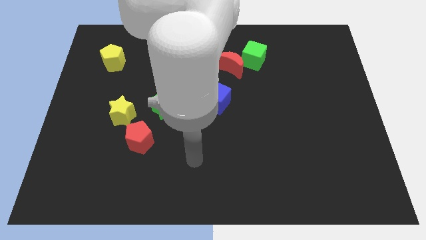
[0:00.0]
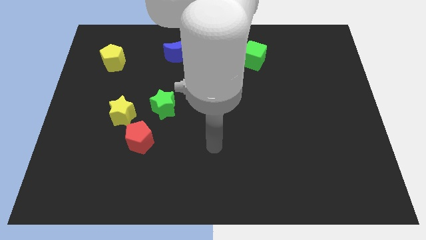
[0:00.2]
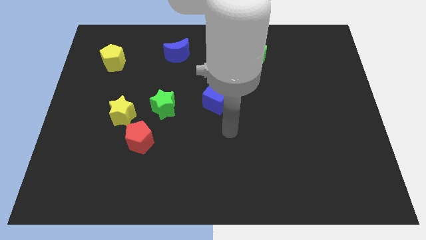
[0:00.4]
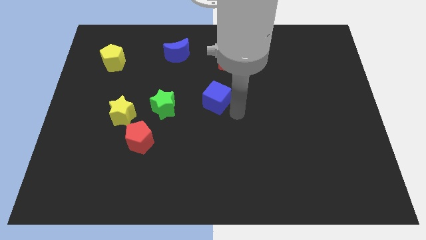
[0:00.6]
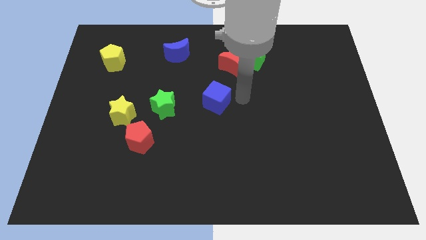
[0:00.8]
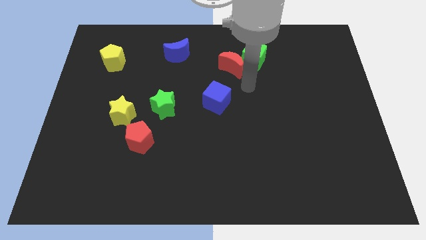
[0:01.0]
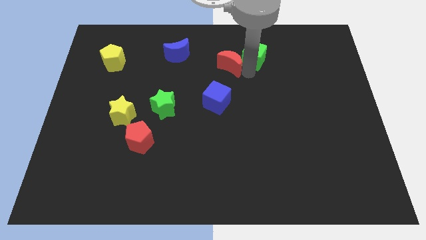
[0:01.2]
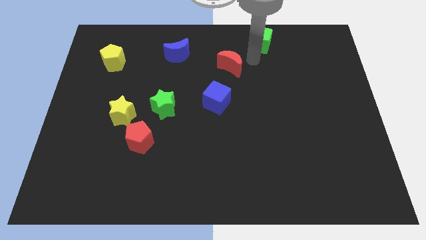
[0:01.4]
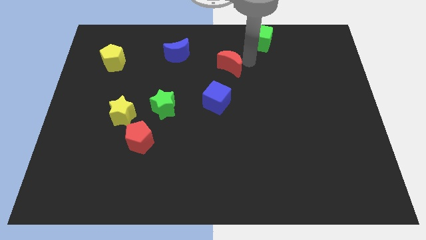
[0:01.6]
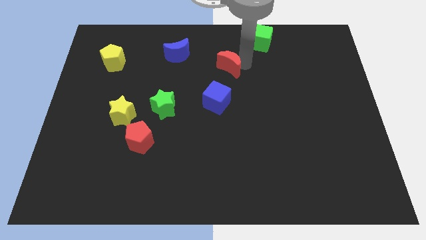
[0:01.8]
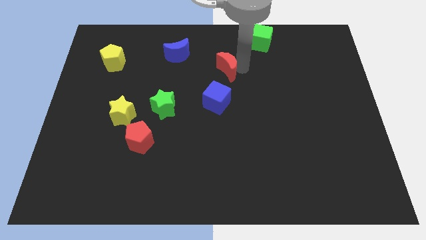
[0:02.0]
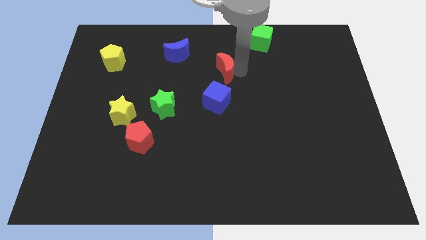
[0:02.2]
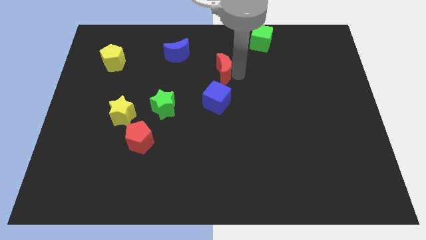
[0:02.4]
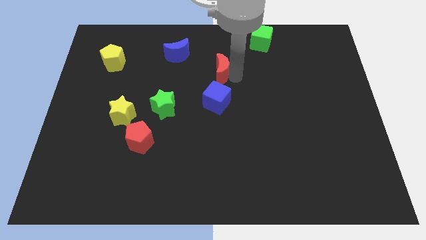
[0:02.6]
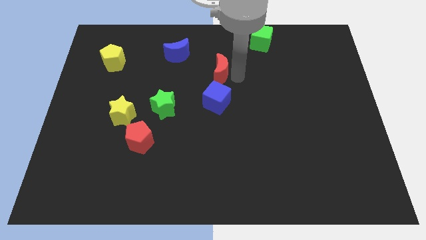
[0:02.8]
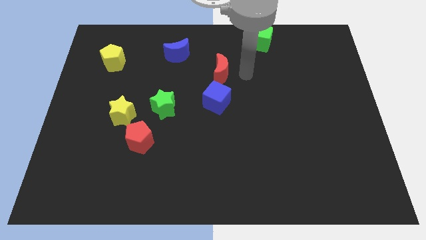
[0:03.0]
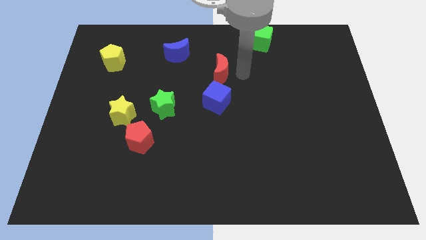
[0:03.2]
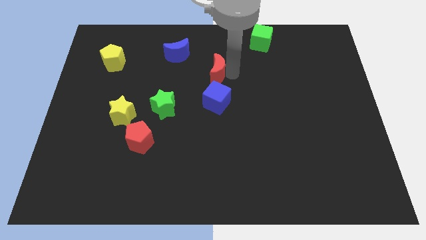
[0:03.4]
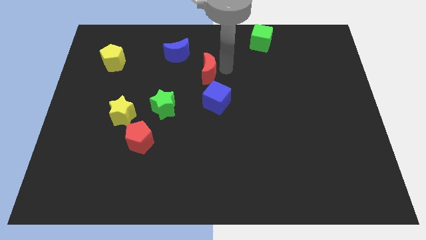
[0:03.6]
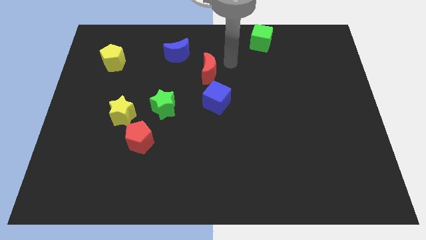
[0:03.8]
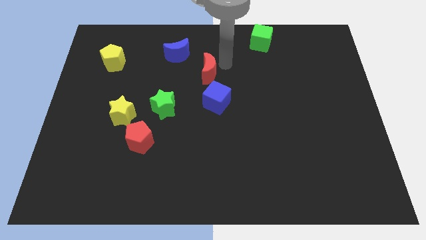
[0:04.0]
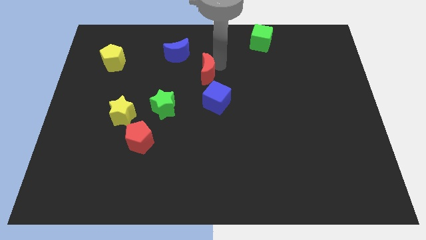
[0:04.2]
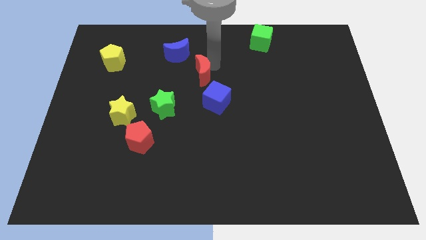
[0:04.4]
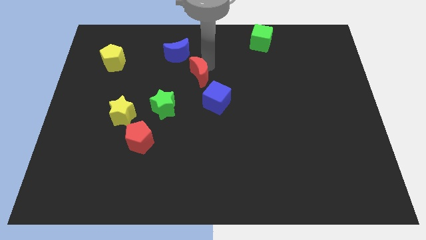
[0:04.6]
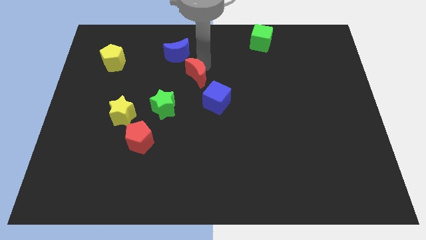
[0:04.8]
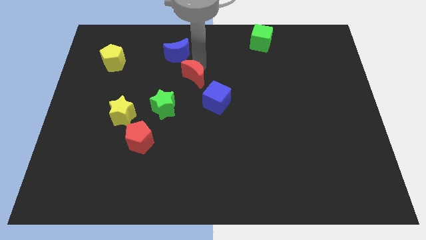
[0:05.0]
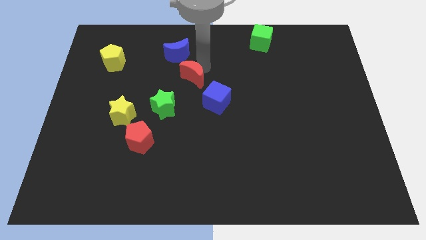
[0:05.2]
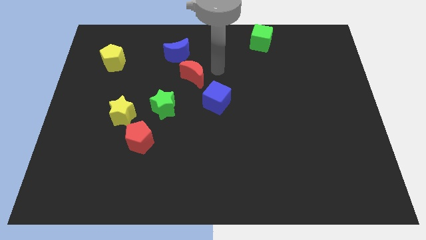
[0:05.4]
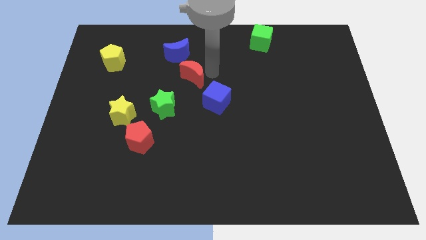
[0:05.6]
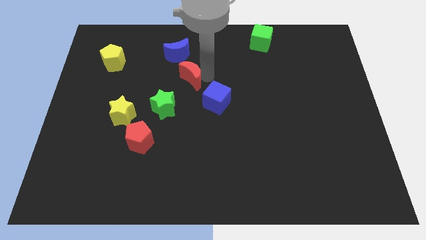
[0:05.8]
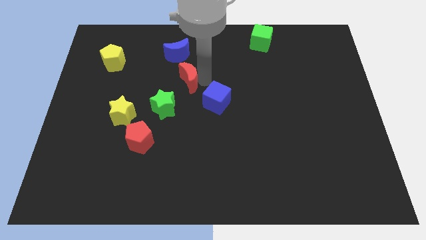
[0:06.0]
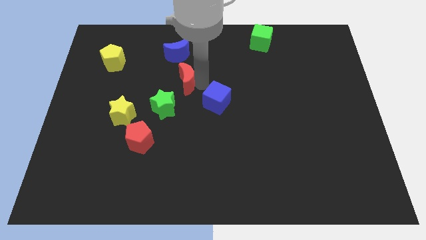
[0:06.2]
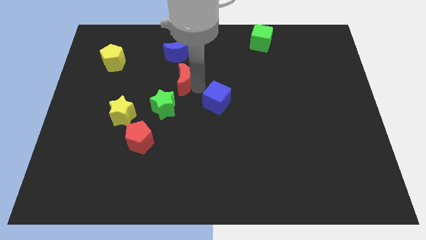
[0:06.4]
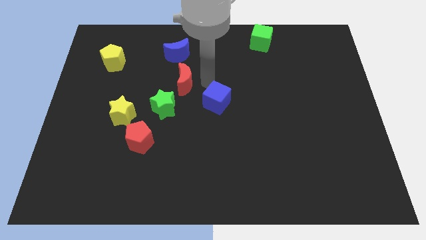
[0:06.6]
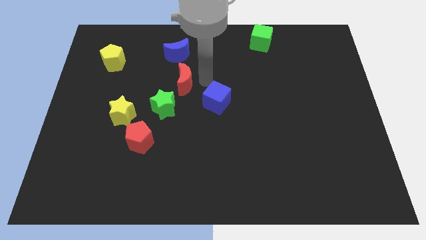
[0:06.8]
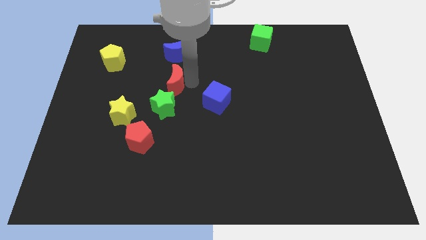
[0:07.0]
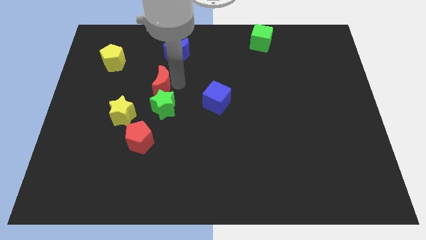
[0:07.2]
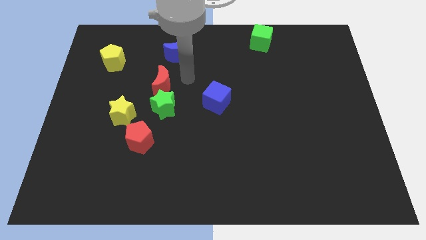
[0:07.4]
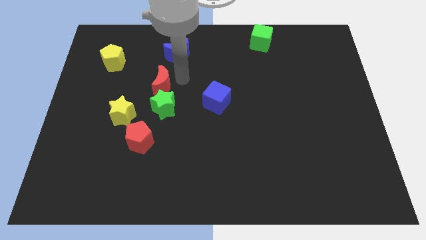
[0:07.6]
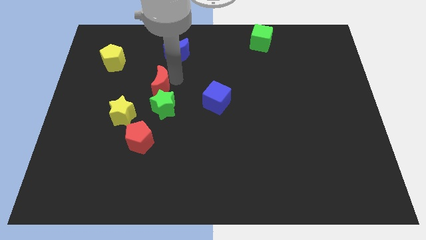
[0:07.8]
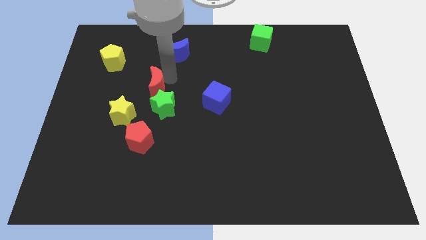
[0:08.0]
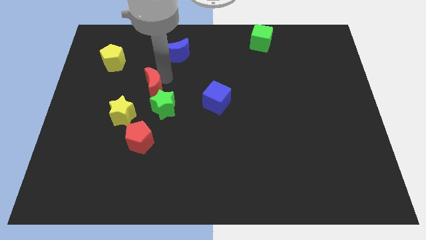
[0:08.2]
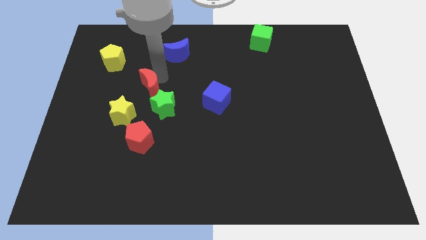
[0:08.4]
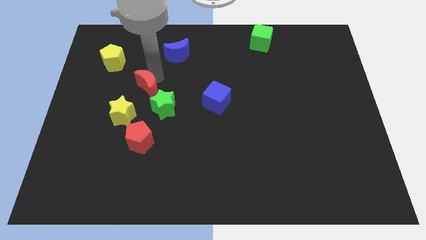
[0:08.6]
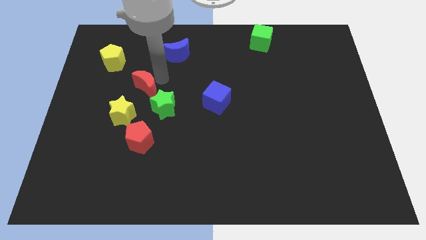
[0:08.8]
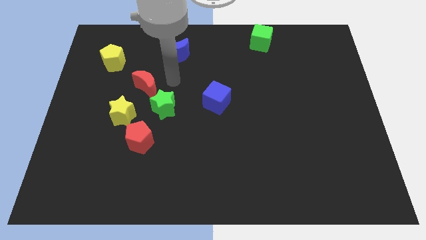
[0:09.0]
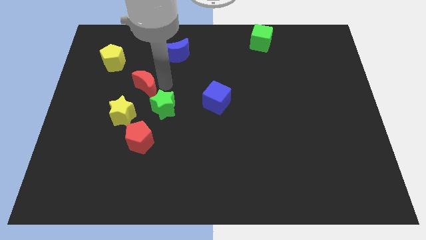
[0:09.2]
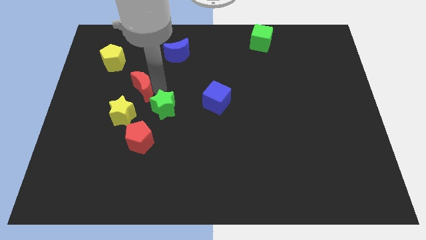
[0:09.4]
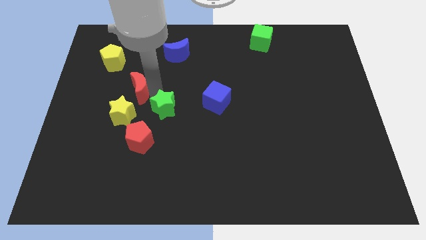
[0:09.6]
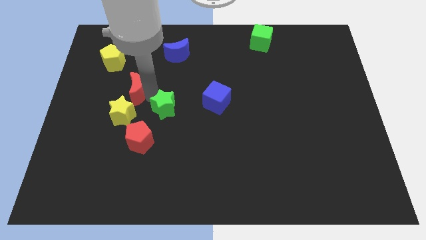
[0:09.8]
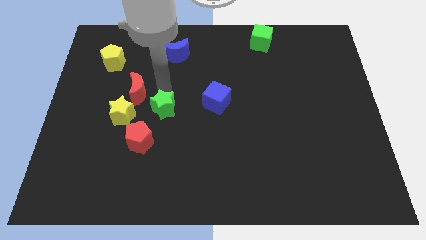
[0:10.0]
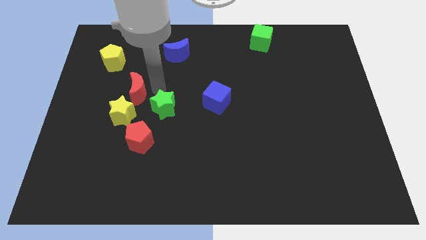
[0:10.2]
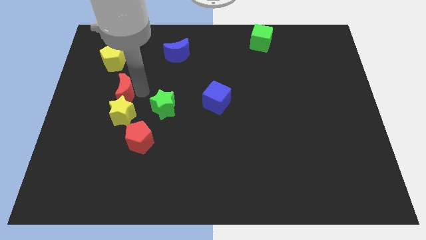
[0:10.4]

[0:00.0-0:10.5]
push the red moon to the top left side of the yellow star

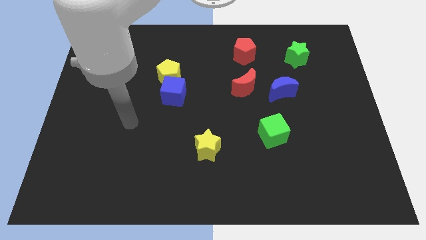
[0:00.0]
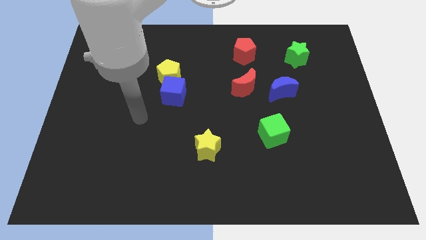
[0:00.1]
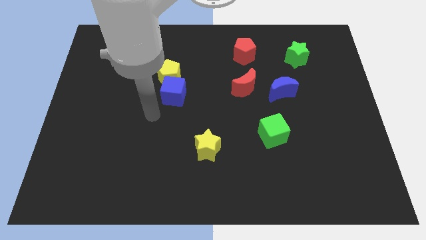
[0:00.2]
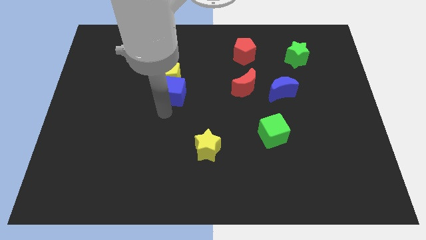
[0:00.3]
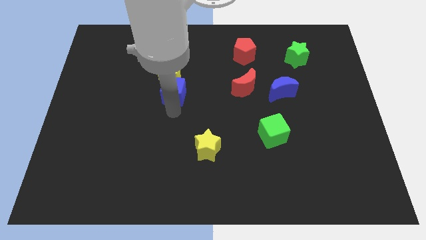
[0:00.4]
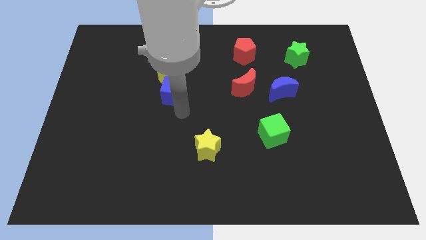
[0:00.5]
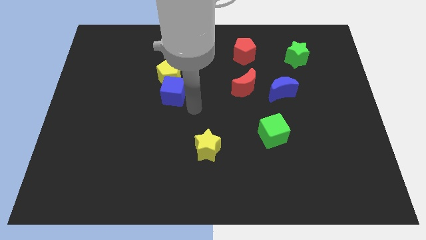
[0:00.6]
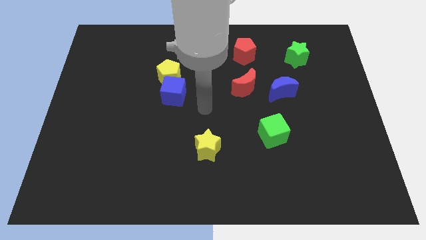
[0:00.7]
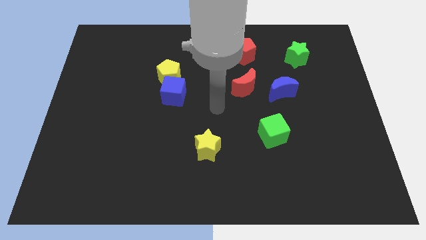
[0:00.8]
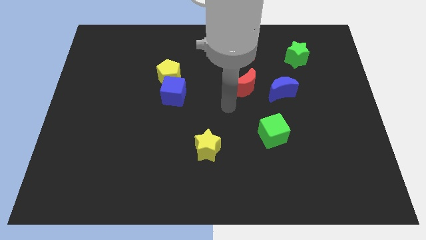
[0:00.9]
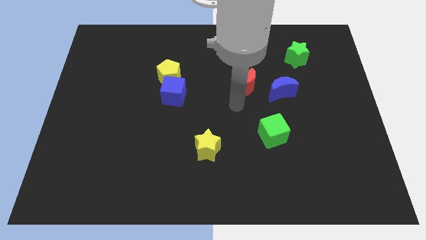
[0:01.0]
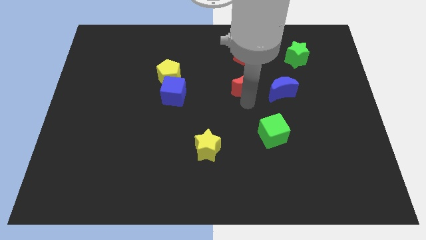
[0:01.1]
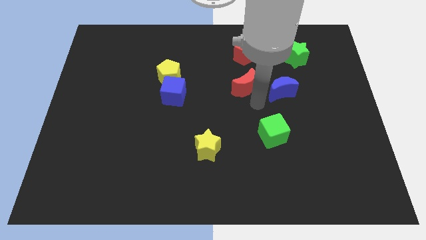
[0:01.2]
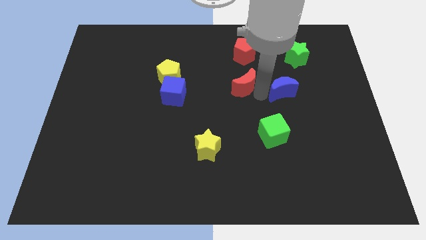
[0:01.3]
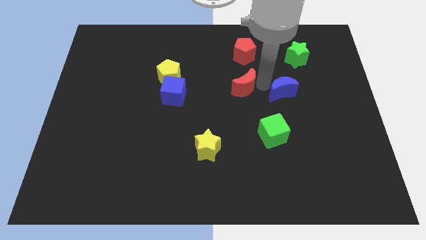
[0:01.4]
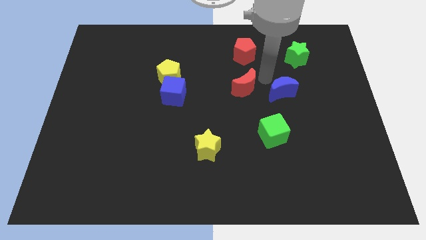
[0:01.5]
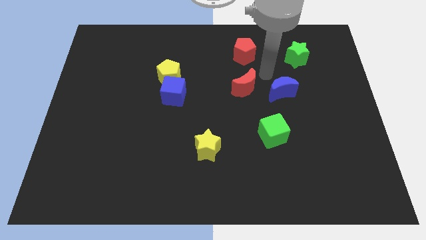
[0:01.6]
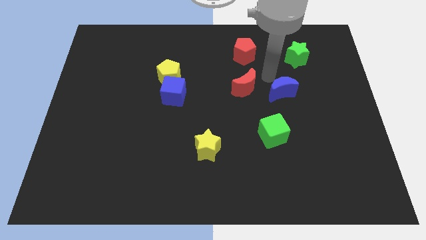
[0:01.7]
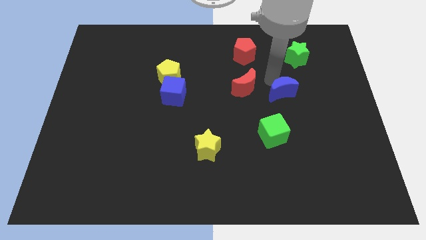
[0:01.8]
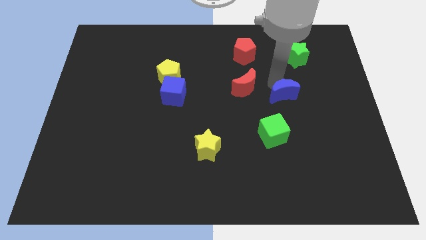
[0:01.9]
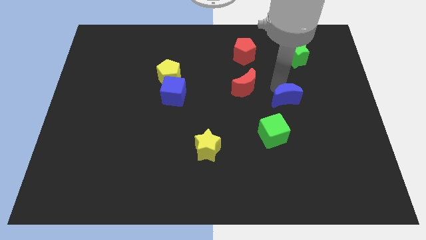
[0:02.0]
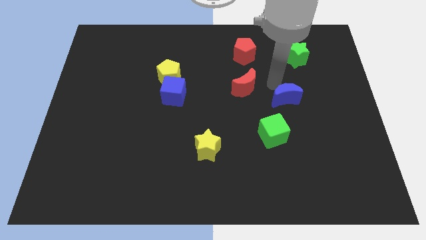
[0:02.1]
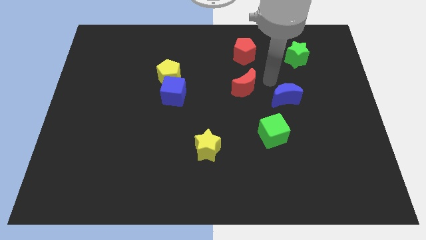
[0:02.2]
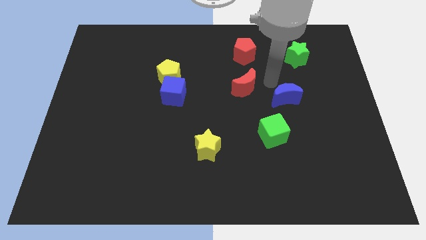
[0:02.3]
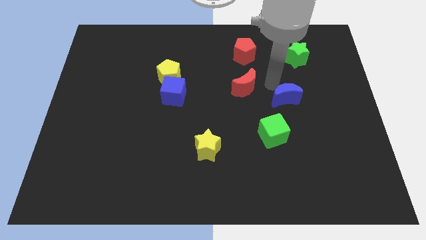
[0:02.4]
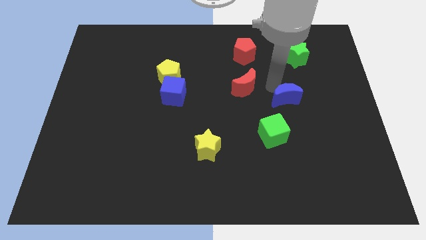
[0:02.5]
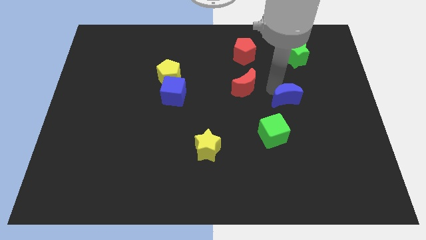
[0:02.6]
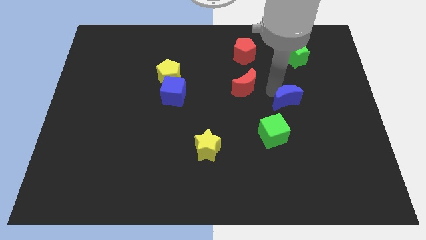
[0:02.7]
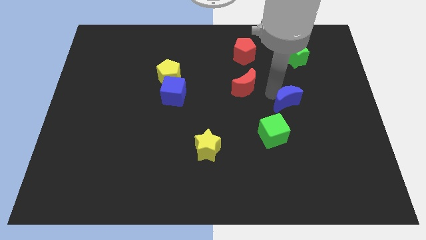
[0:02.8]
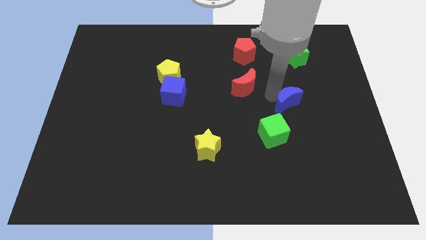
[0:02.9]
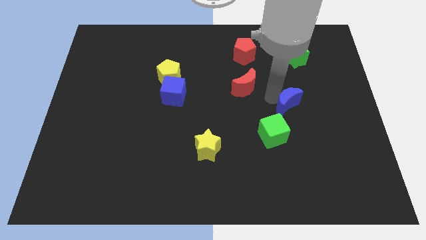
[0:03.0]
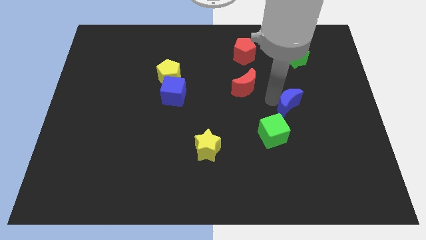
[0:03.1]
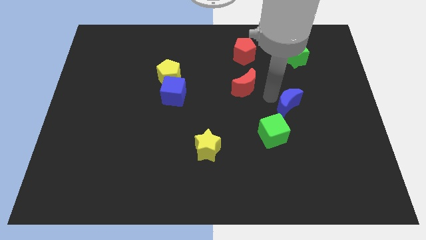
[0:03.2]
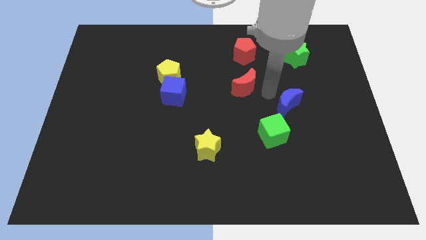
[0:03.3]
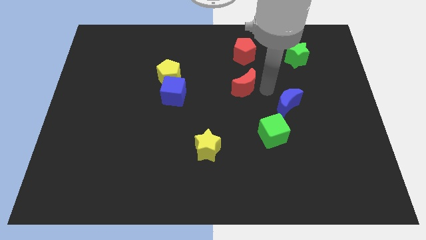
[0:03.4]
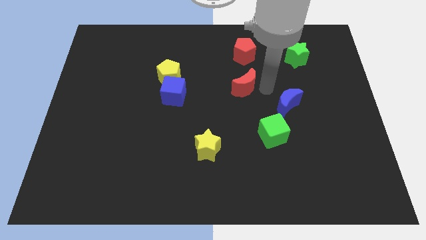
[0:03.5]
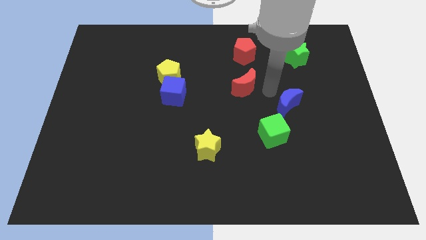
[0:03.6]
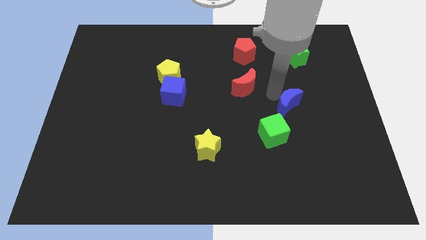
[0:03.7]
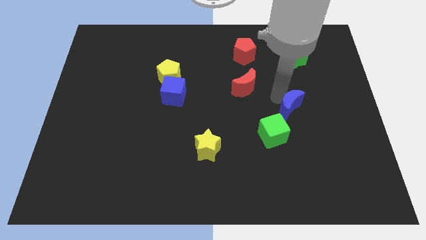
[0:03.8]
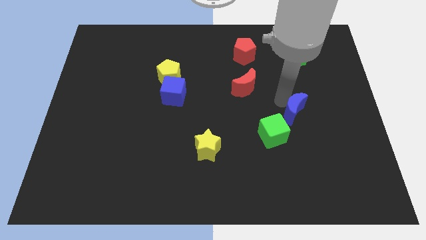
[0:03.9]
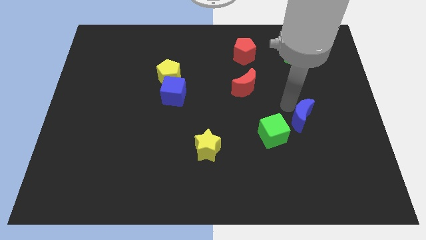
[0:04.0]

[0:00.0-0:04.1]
push the blue moon to the right side of the green cube
